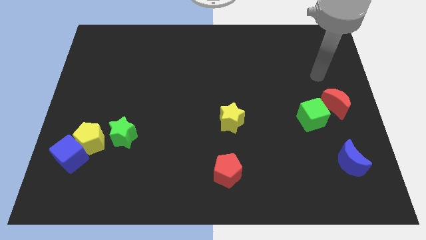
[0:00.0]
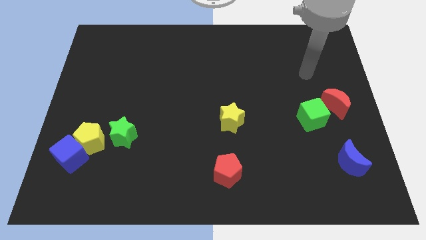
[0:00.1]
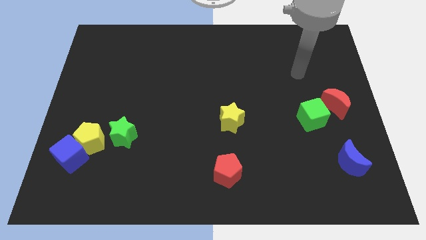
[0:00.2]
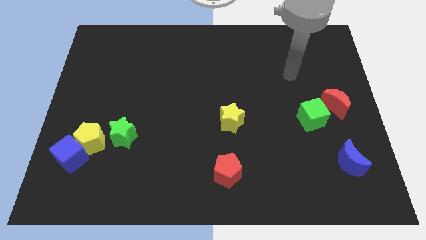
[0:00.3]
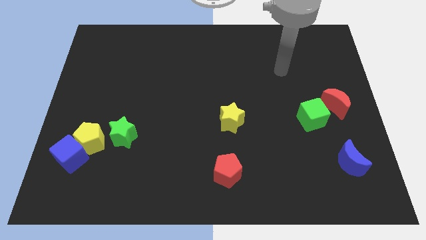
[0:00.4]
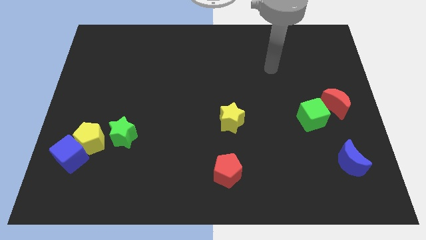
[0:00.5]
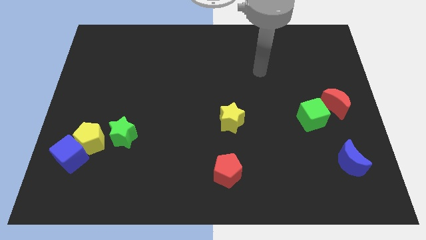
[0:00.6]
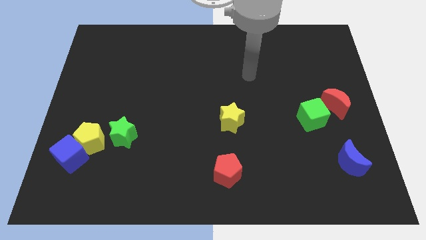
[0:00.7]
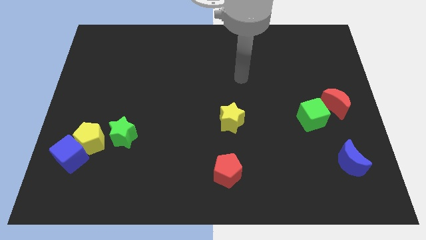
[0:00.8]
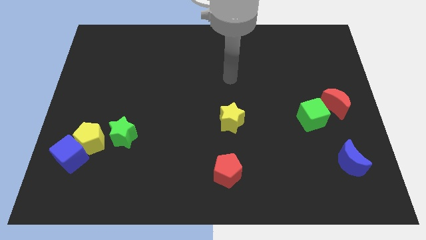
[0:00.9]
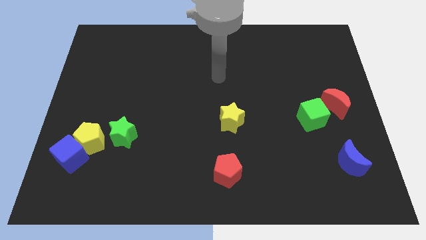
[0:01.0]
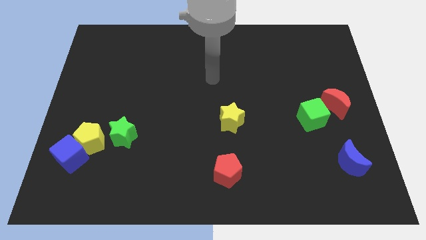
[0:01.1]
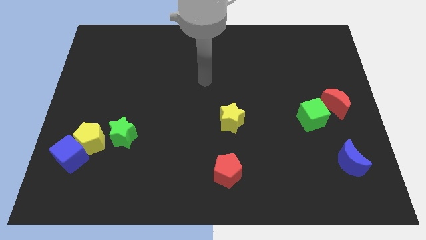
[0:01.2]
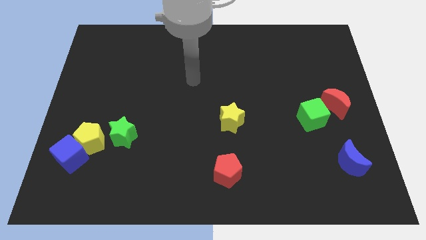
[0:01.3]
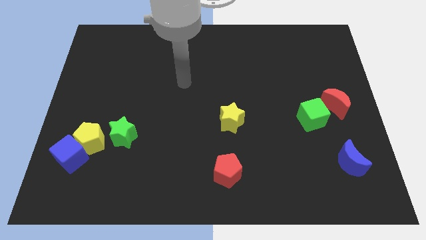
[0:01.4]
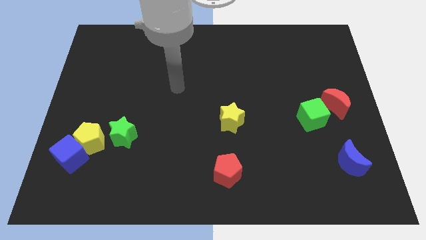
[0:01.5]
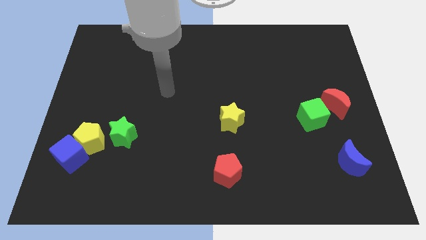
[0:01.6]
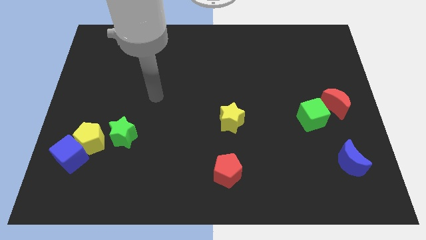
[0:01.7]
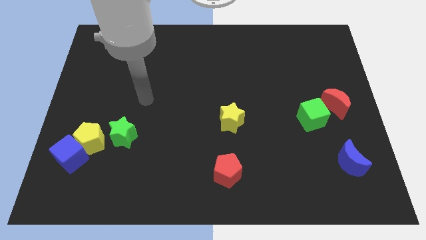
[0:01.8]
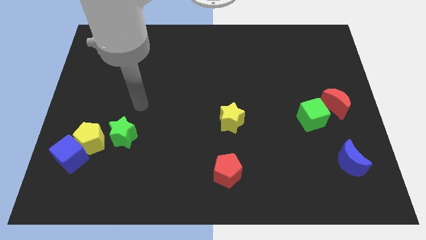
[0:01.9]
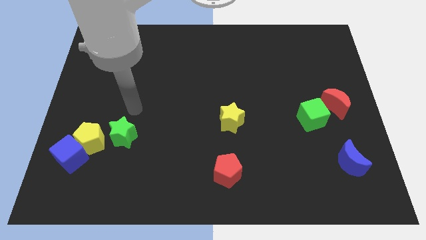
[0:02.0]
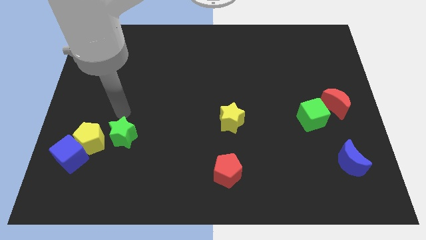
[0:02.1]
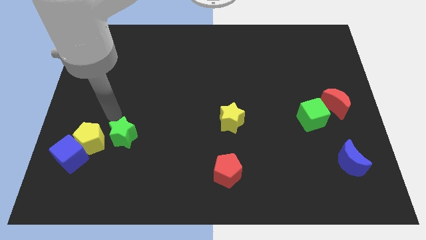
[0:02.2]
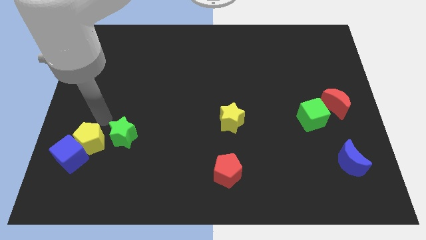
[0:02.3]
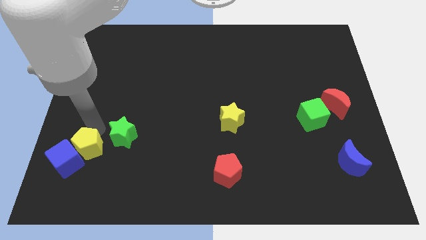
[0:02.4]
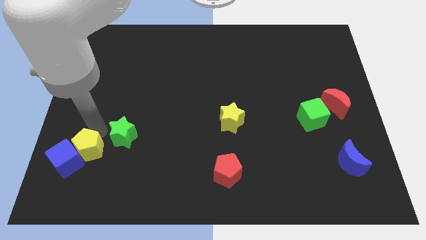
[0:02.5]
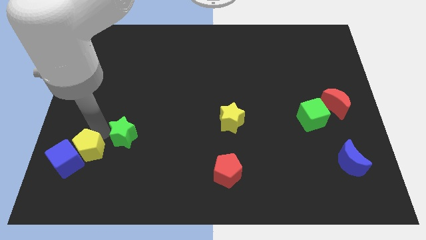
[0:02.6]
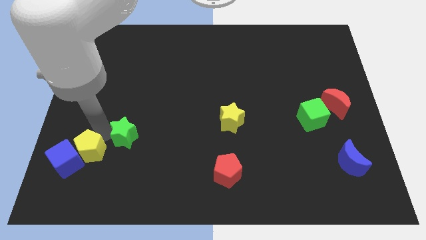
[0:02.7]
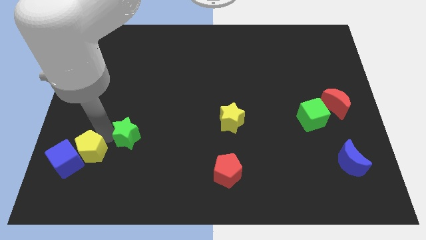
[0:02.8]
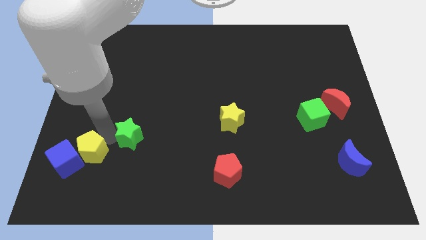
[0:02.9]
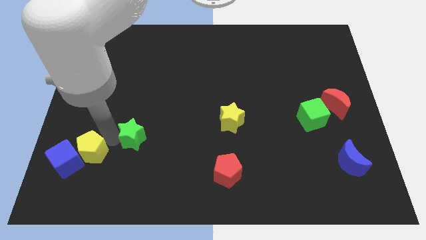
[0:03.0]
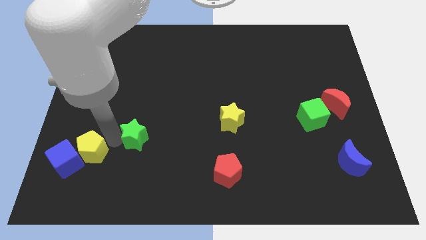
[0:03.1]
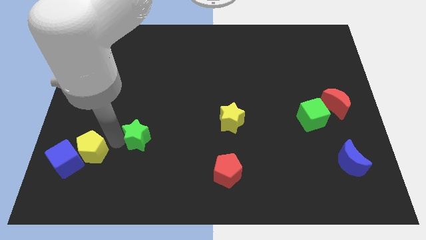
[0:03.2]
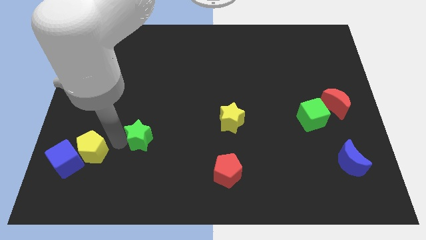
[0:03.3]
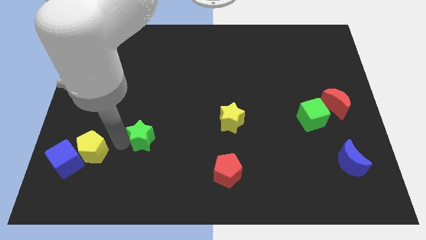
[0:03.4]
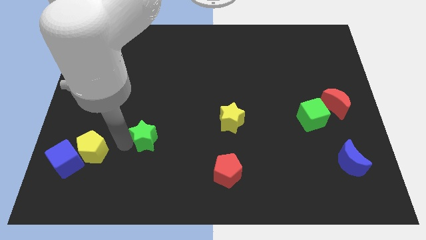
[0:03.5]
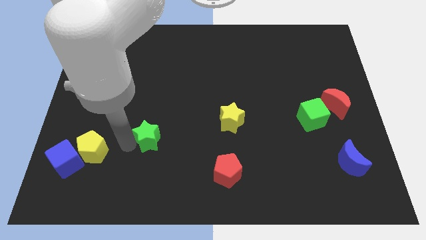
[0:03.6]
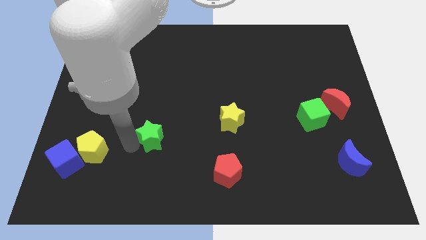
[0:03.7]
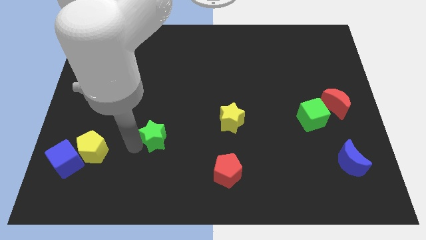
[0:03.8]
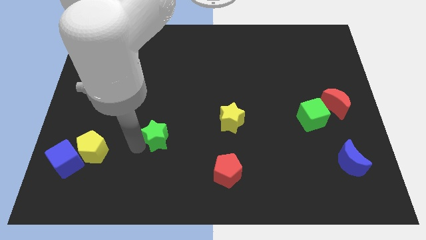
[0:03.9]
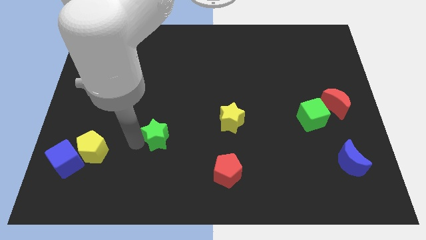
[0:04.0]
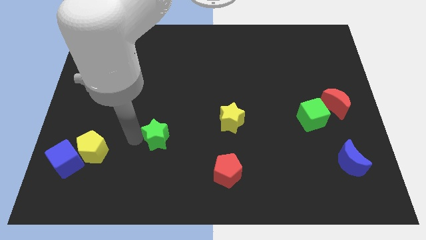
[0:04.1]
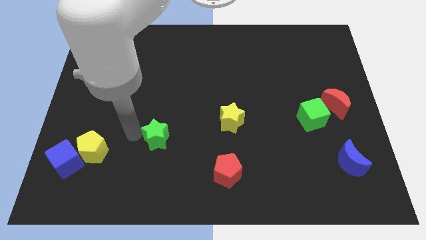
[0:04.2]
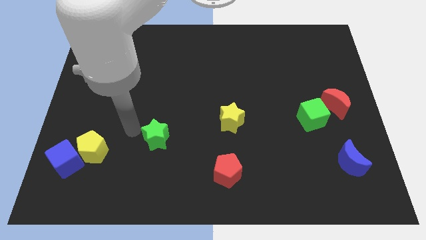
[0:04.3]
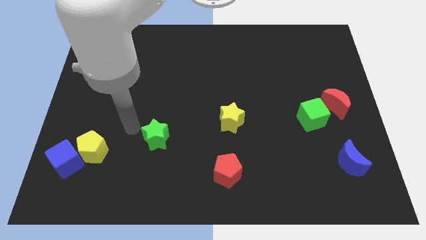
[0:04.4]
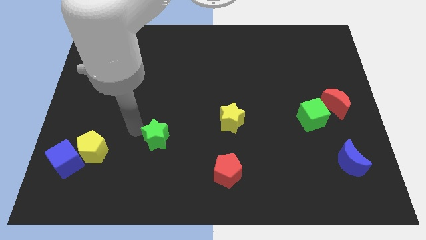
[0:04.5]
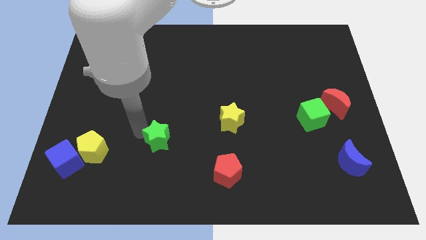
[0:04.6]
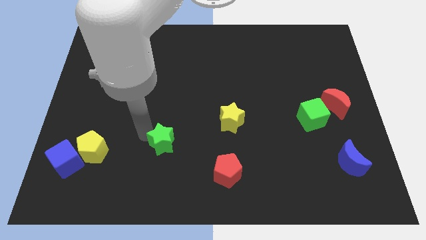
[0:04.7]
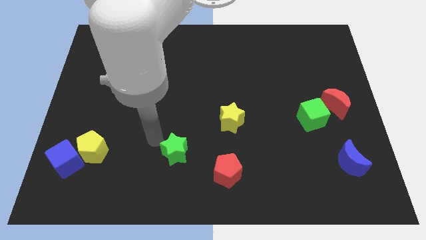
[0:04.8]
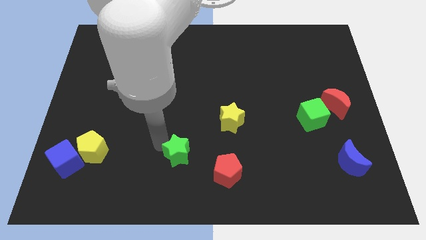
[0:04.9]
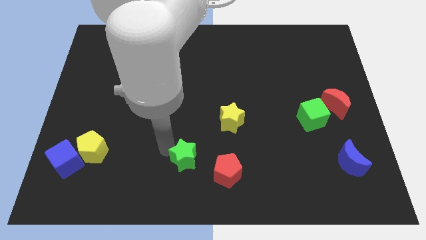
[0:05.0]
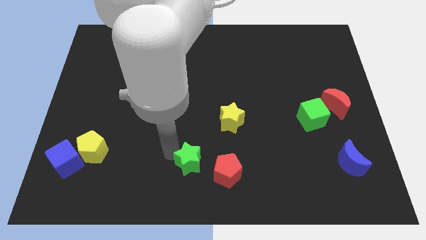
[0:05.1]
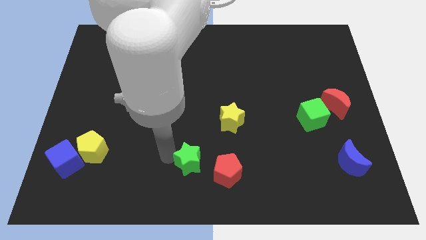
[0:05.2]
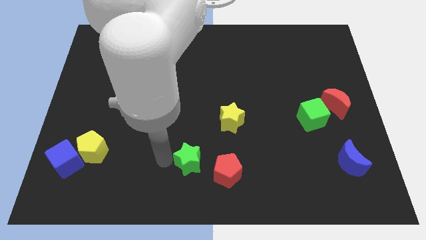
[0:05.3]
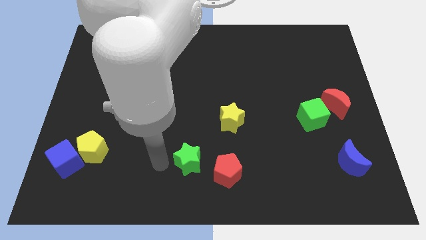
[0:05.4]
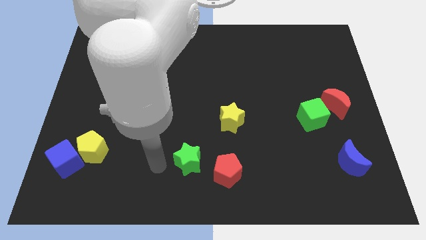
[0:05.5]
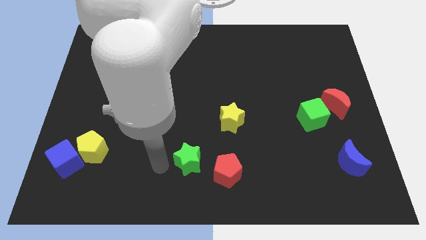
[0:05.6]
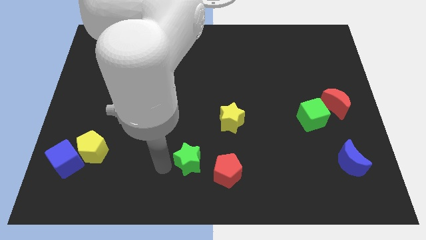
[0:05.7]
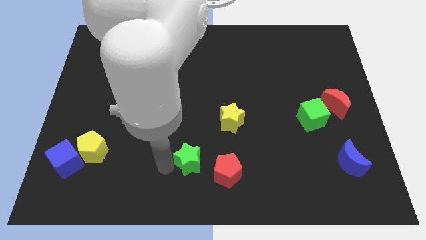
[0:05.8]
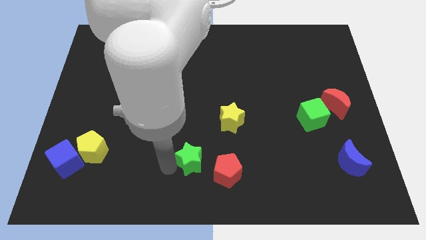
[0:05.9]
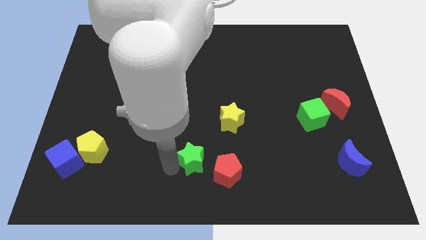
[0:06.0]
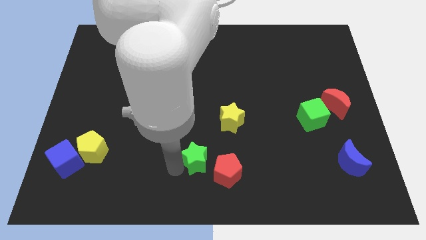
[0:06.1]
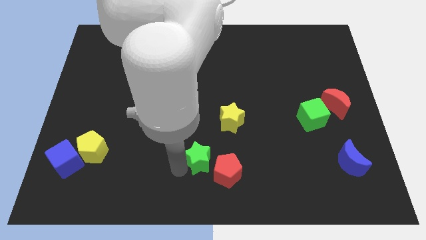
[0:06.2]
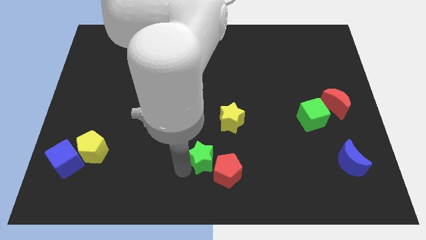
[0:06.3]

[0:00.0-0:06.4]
push the green star close to the red pentagon

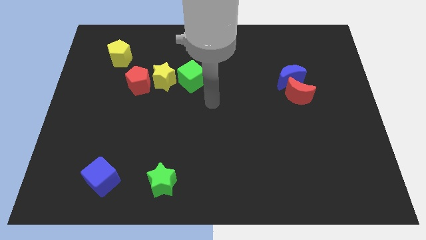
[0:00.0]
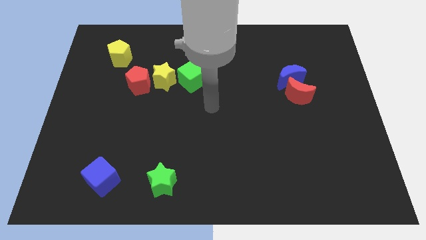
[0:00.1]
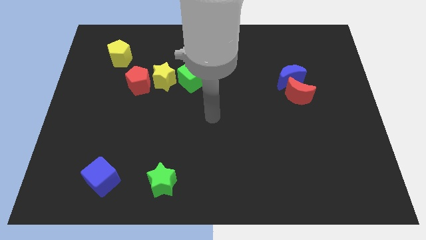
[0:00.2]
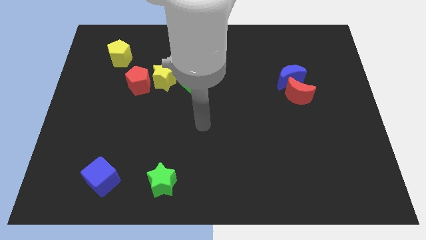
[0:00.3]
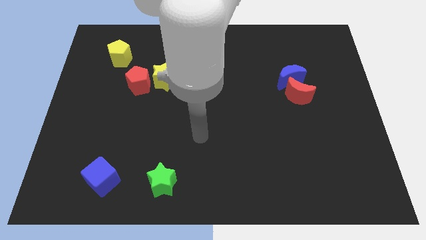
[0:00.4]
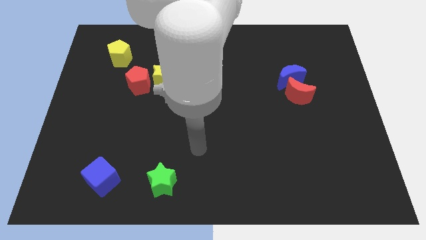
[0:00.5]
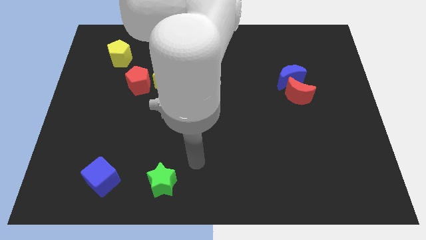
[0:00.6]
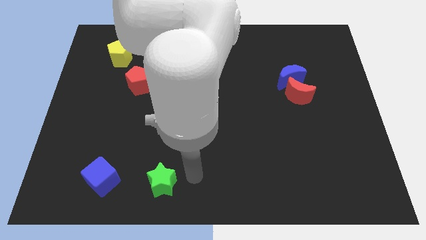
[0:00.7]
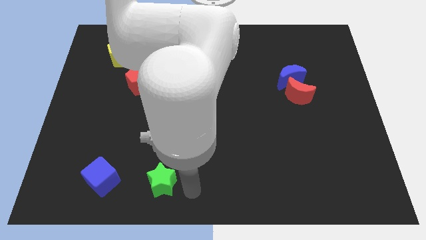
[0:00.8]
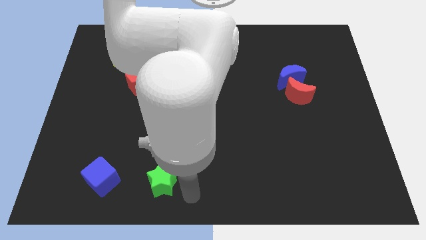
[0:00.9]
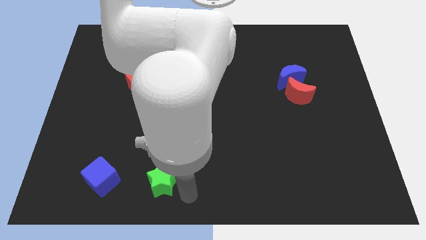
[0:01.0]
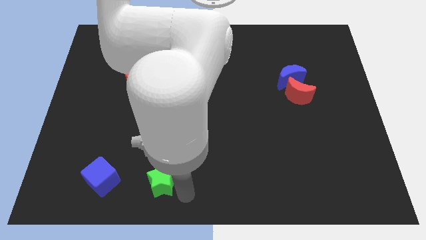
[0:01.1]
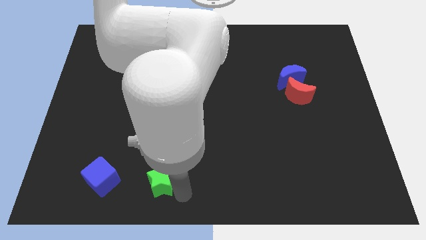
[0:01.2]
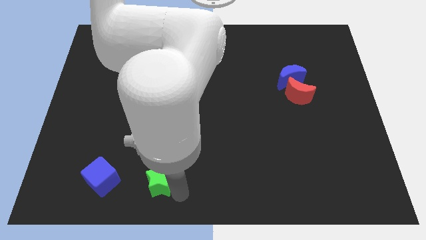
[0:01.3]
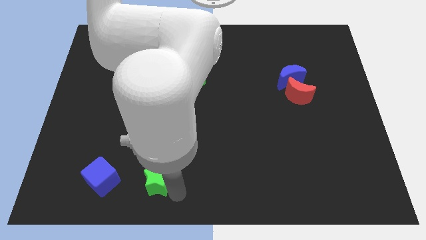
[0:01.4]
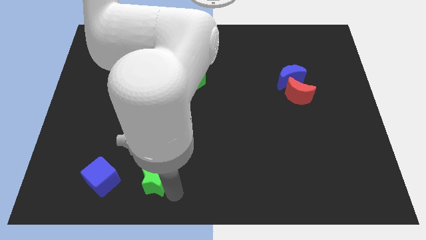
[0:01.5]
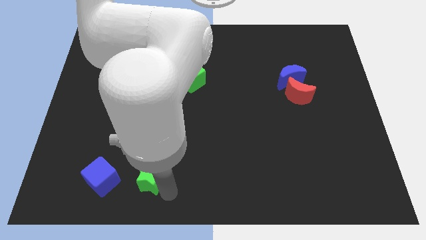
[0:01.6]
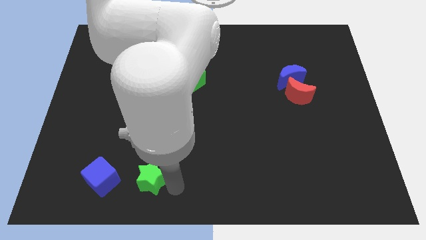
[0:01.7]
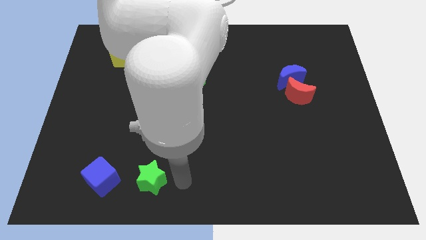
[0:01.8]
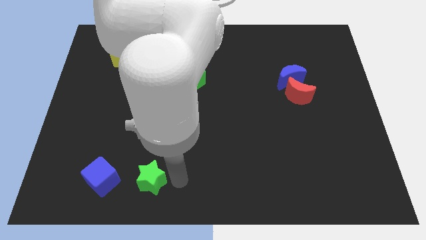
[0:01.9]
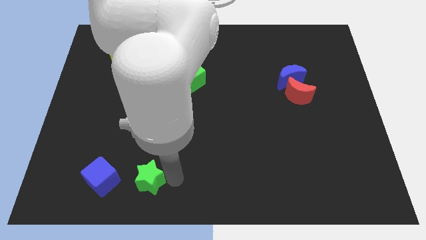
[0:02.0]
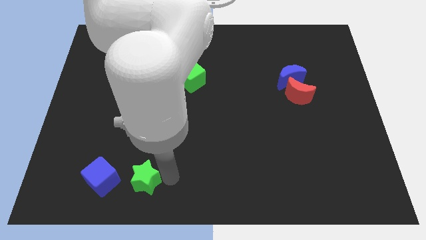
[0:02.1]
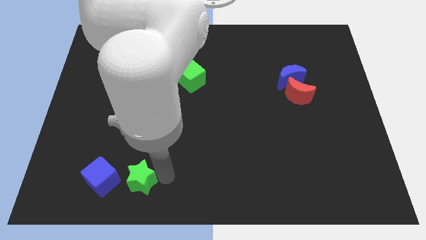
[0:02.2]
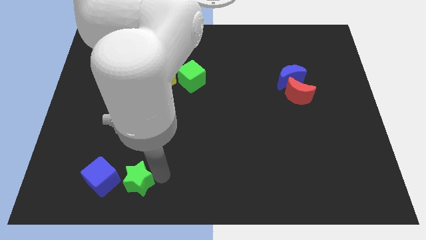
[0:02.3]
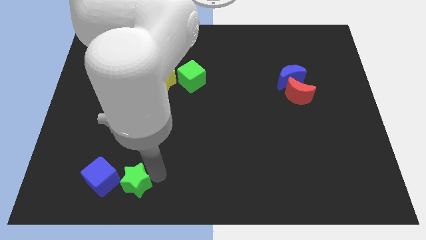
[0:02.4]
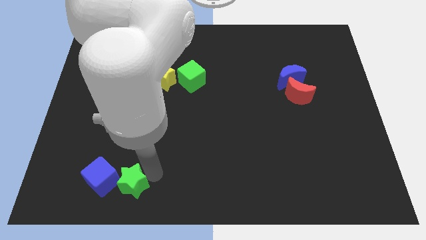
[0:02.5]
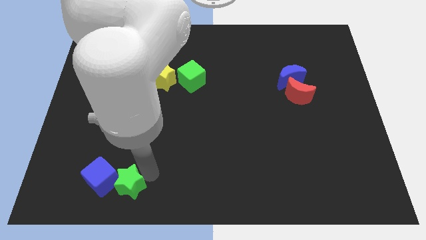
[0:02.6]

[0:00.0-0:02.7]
move the green star next to the blue cube
